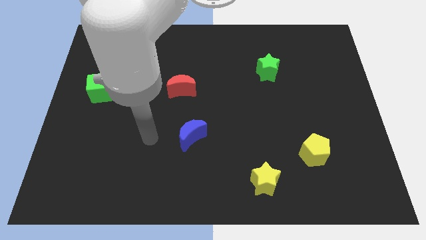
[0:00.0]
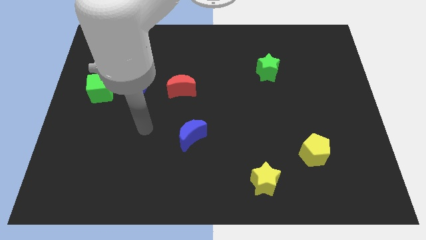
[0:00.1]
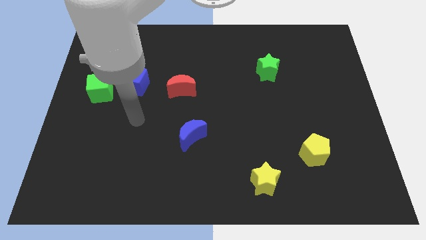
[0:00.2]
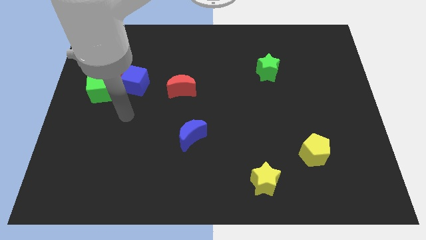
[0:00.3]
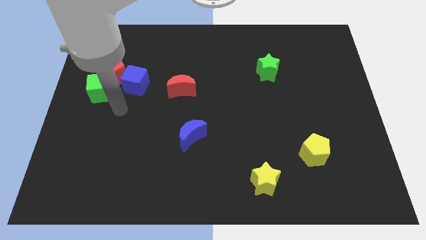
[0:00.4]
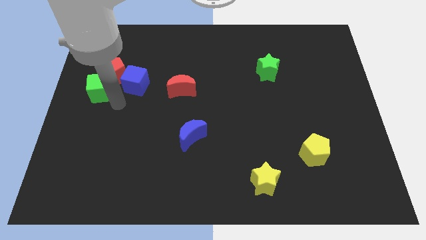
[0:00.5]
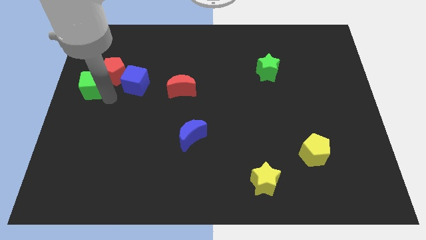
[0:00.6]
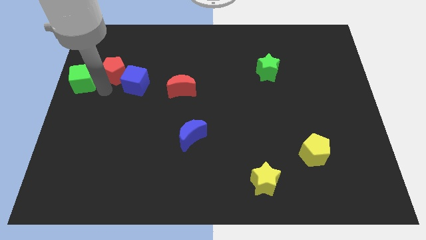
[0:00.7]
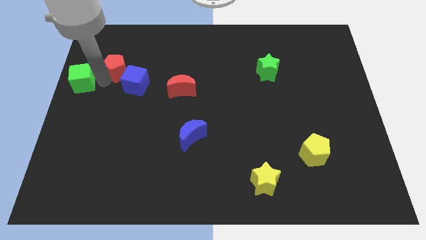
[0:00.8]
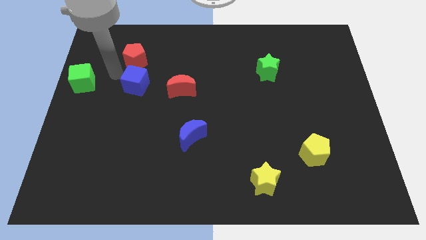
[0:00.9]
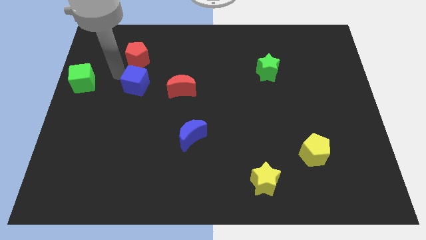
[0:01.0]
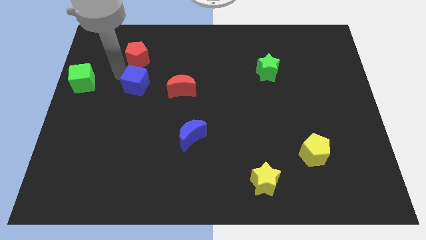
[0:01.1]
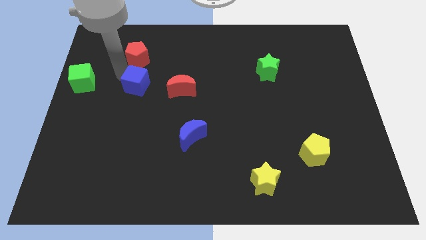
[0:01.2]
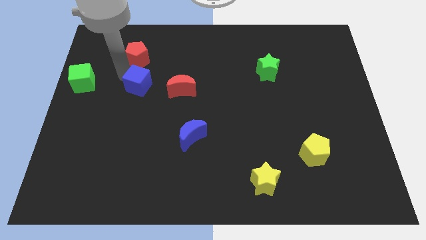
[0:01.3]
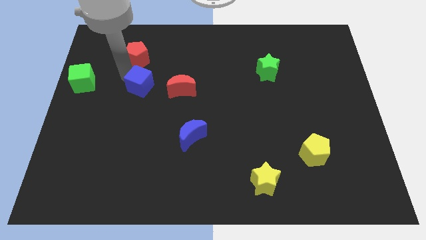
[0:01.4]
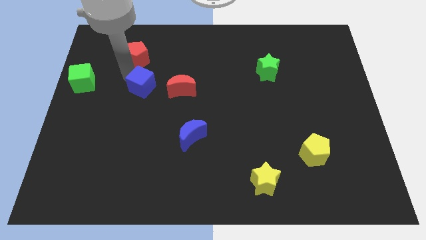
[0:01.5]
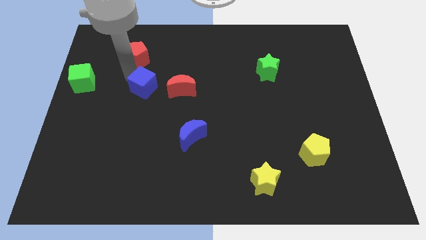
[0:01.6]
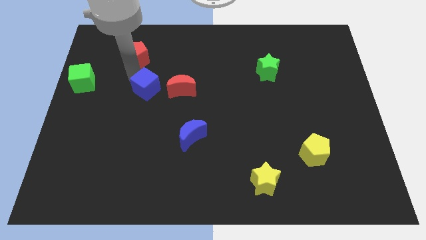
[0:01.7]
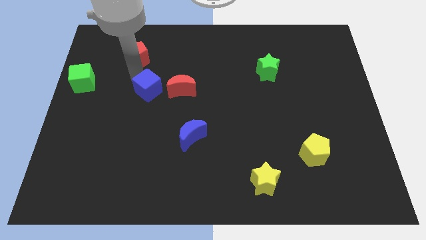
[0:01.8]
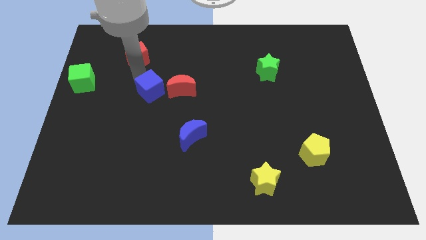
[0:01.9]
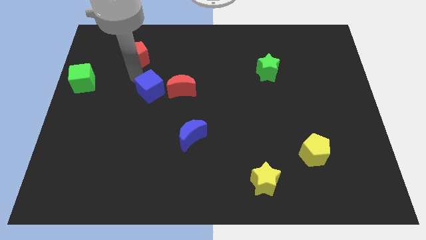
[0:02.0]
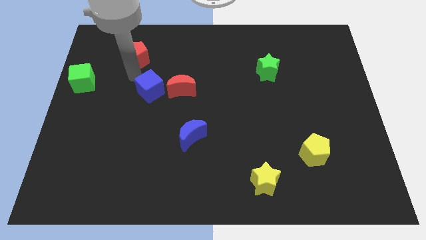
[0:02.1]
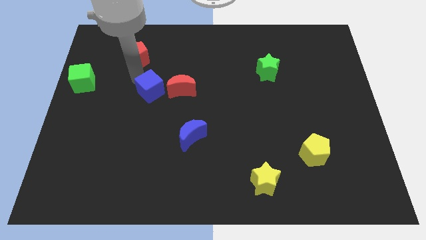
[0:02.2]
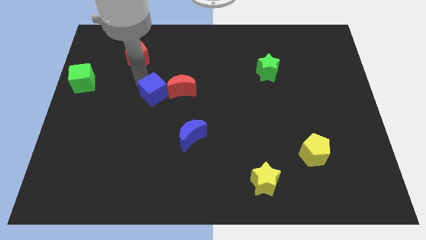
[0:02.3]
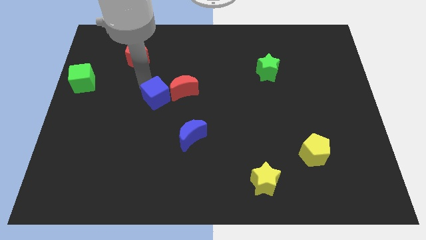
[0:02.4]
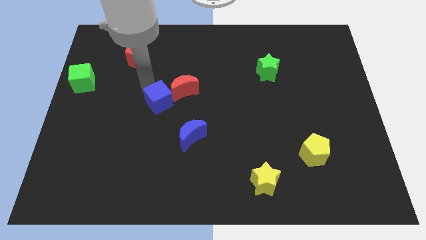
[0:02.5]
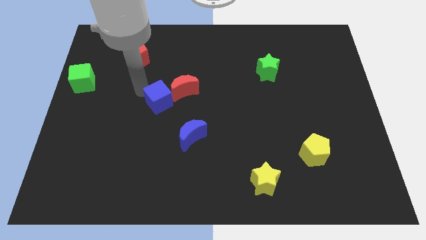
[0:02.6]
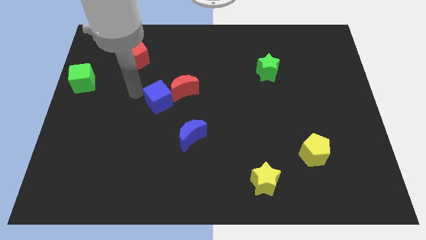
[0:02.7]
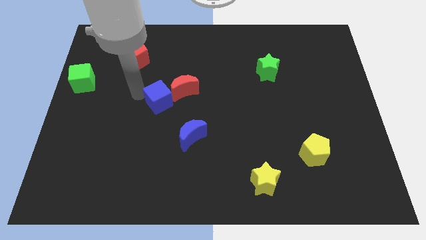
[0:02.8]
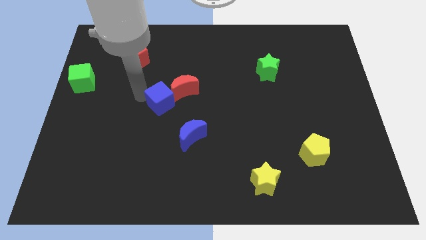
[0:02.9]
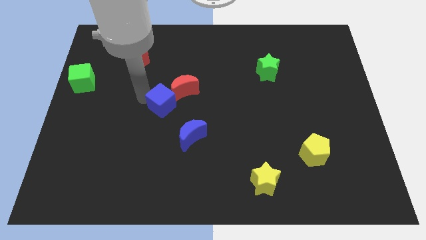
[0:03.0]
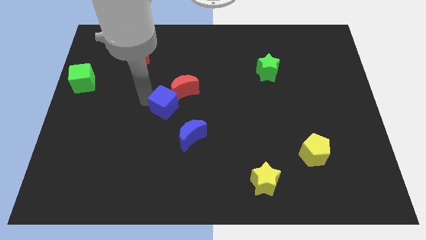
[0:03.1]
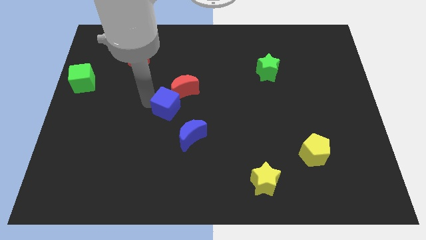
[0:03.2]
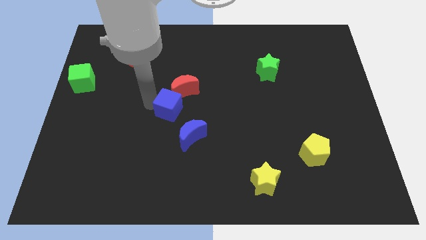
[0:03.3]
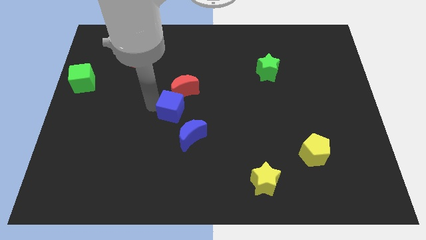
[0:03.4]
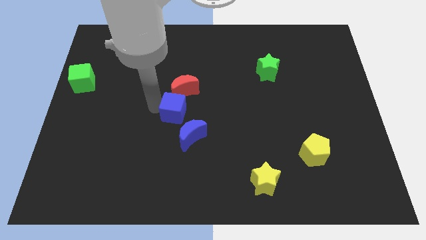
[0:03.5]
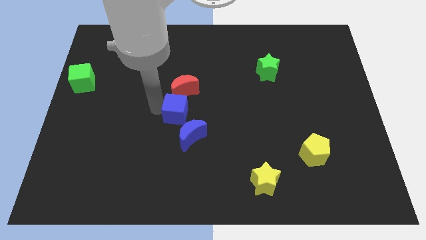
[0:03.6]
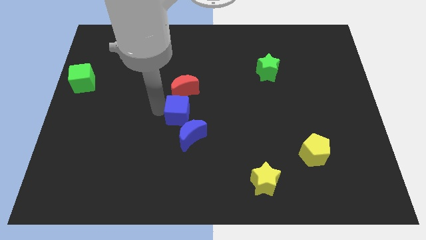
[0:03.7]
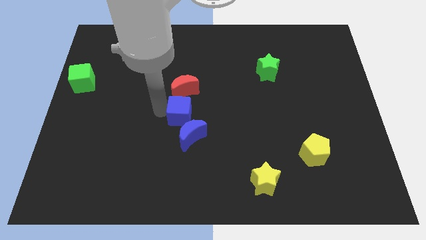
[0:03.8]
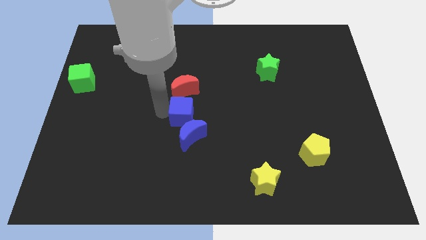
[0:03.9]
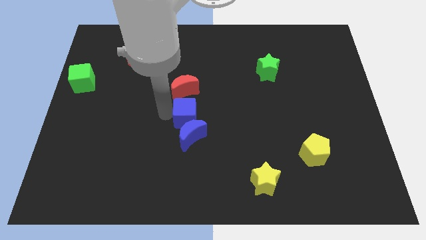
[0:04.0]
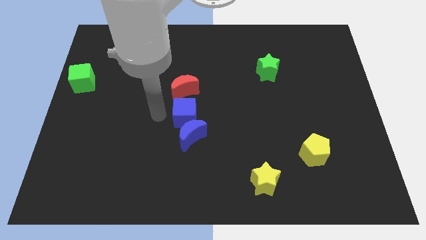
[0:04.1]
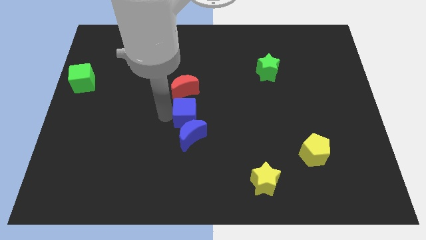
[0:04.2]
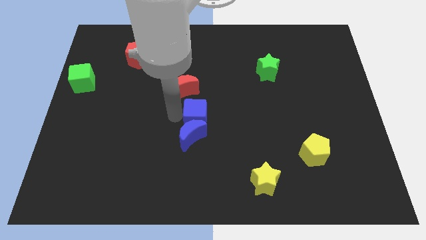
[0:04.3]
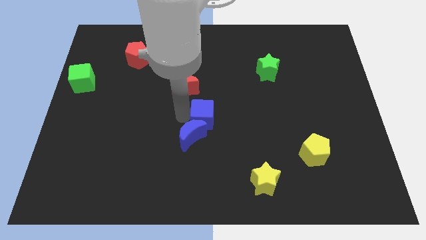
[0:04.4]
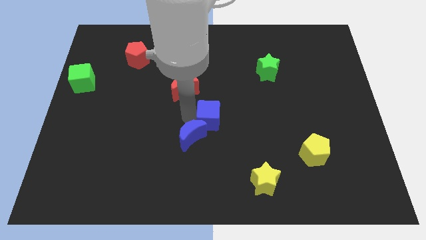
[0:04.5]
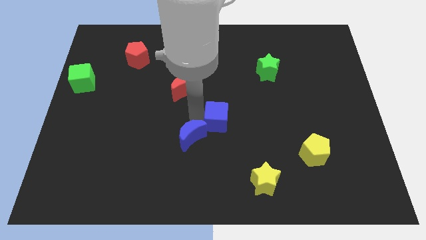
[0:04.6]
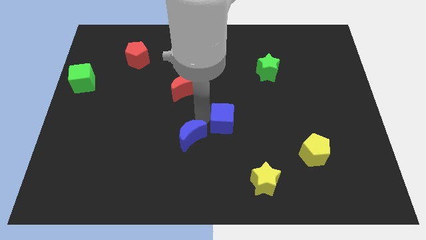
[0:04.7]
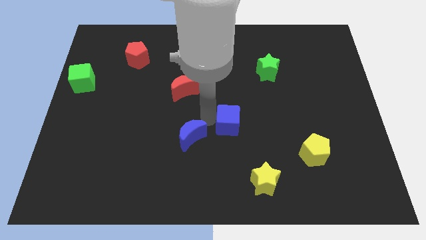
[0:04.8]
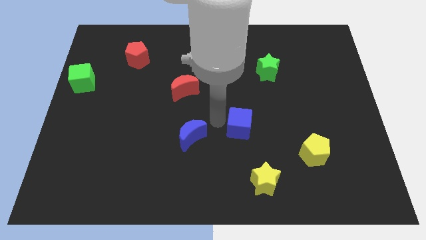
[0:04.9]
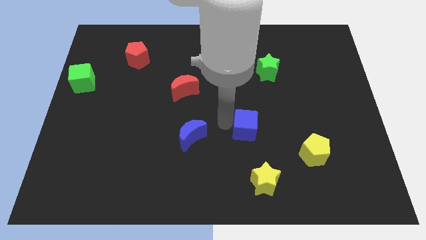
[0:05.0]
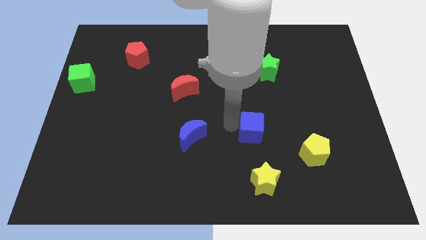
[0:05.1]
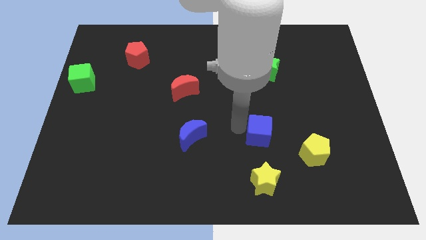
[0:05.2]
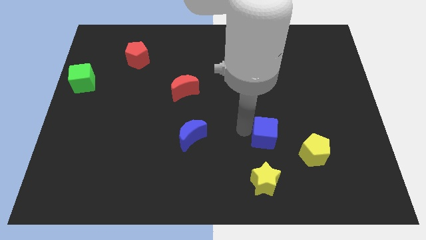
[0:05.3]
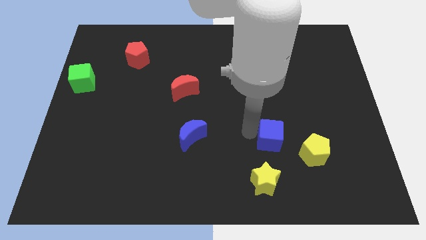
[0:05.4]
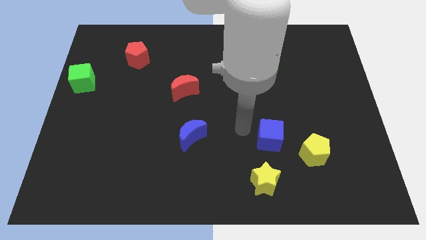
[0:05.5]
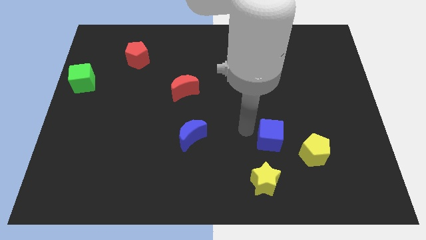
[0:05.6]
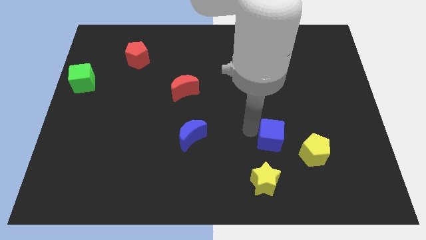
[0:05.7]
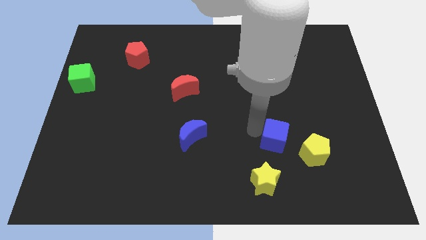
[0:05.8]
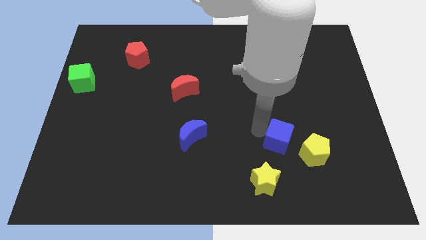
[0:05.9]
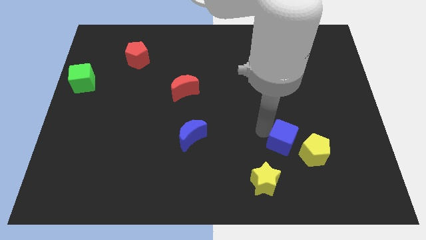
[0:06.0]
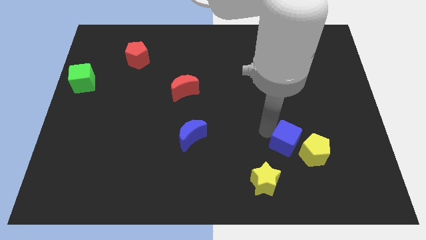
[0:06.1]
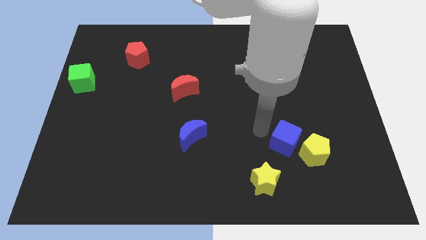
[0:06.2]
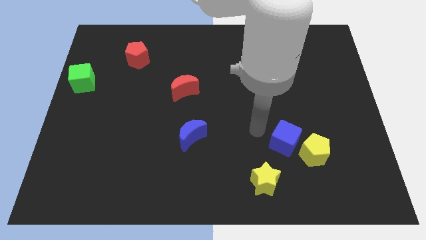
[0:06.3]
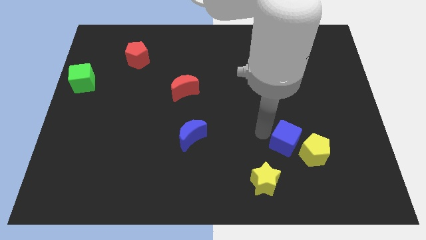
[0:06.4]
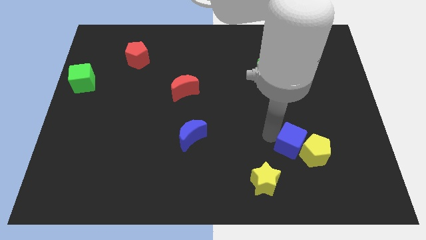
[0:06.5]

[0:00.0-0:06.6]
slide the blue cube to the yellow pentagon
